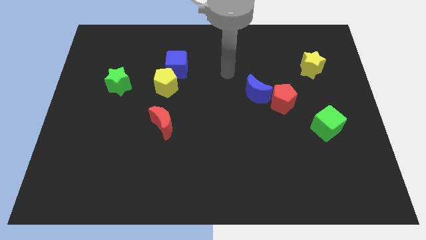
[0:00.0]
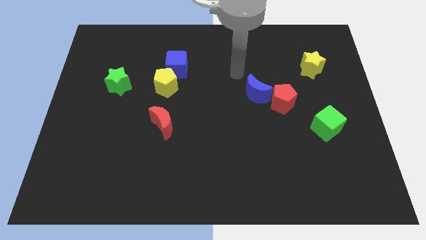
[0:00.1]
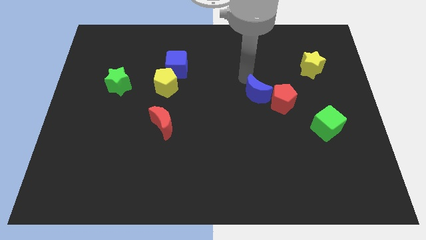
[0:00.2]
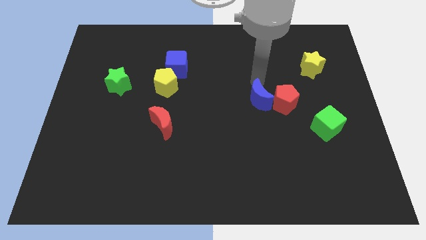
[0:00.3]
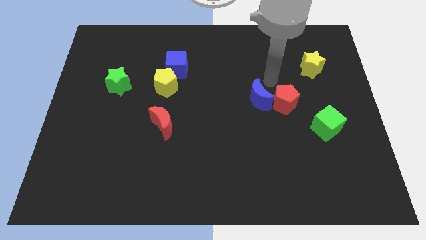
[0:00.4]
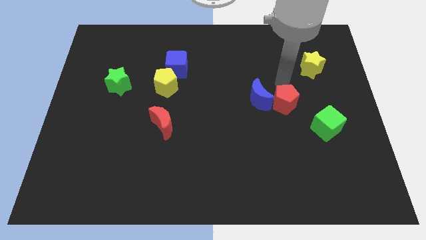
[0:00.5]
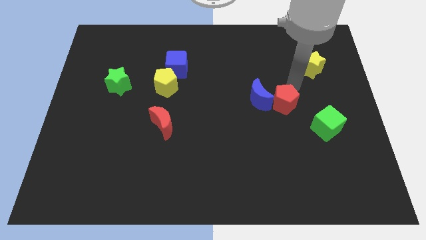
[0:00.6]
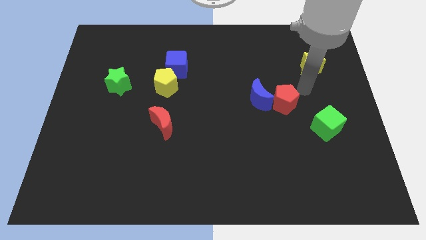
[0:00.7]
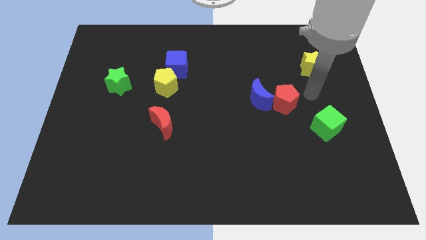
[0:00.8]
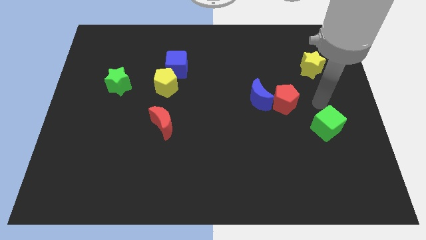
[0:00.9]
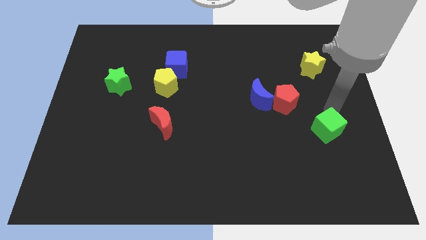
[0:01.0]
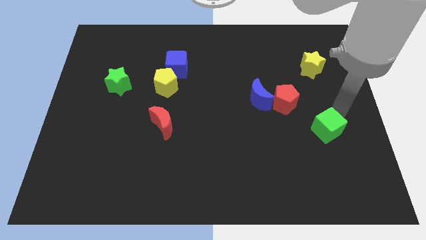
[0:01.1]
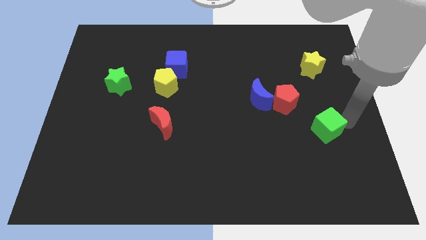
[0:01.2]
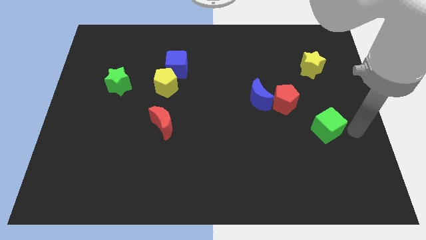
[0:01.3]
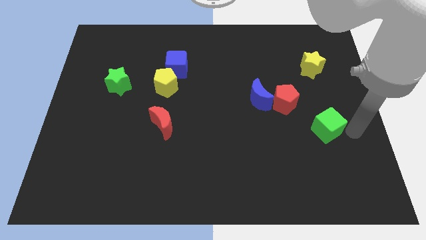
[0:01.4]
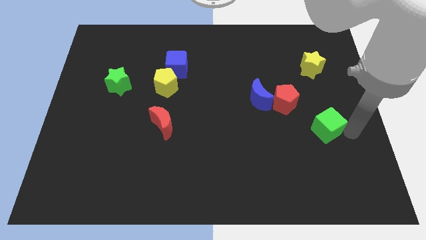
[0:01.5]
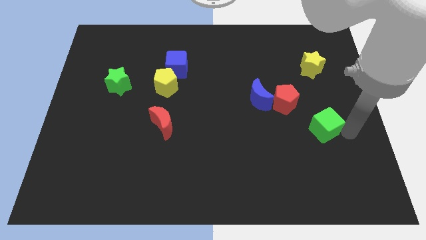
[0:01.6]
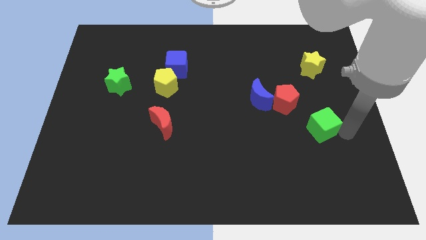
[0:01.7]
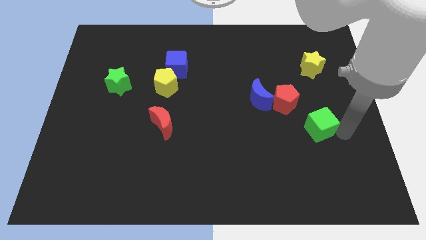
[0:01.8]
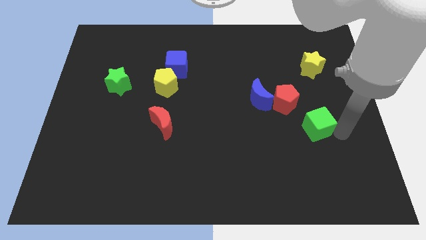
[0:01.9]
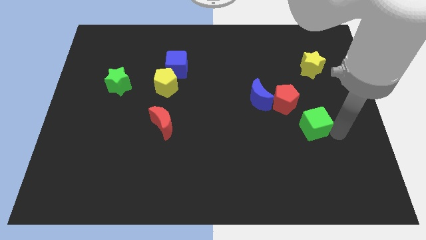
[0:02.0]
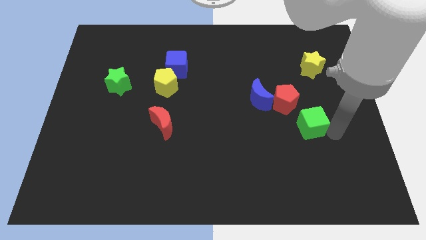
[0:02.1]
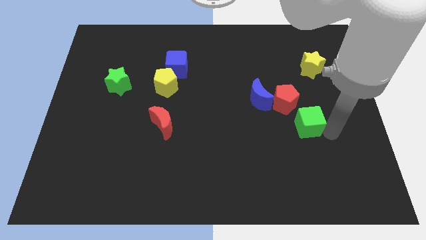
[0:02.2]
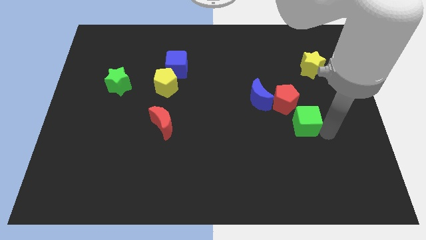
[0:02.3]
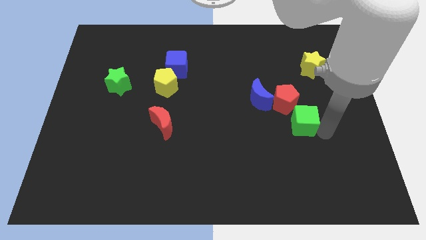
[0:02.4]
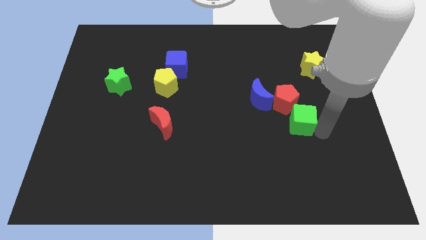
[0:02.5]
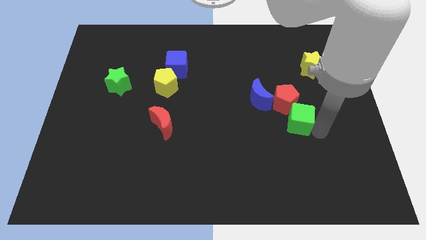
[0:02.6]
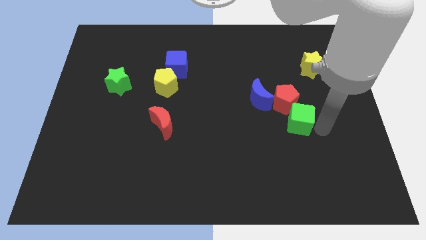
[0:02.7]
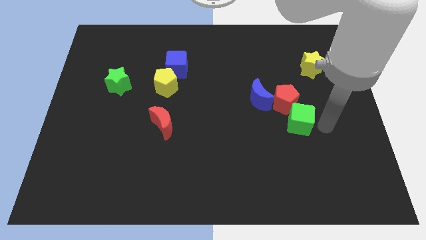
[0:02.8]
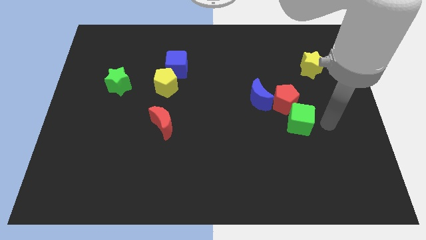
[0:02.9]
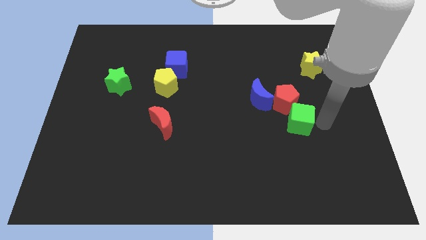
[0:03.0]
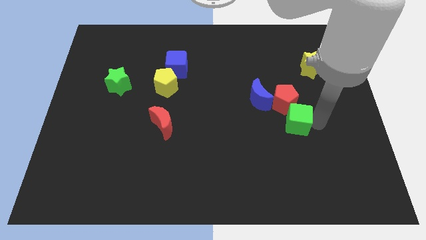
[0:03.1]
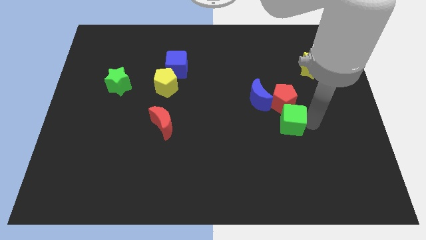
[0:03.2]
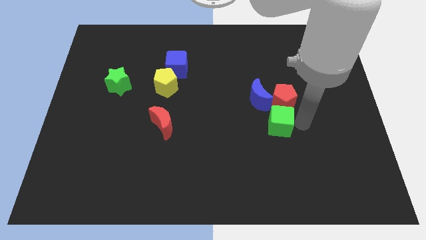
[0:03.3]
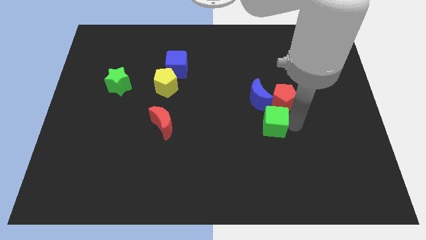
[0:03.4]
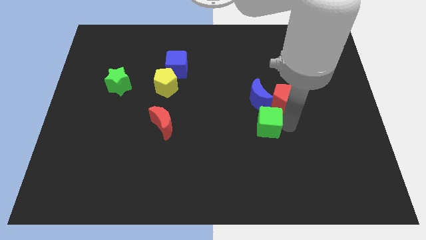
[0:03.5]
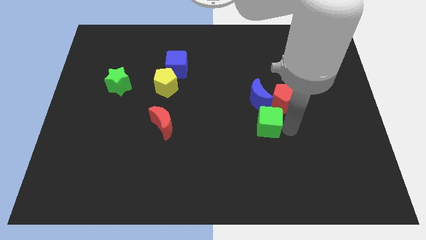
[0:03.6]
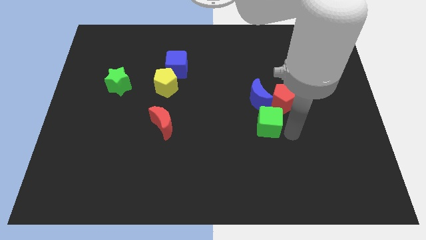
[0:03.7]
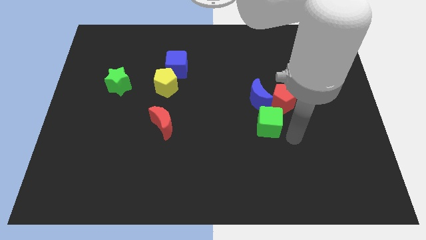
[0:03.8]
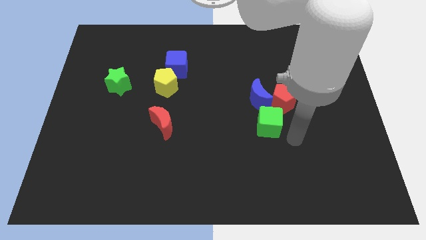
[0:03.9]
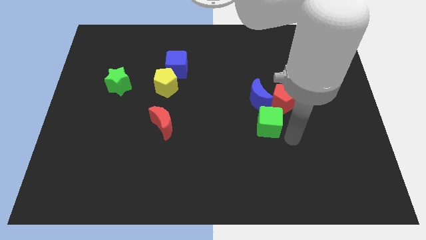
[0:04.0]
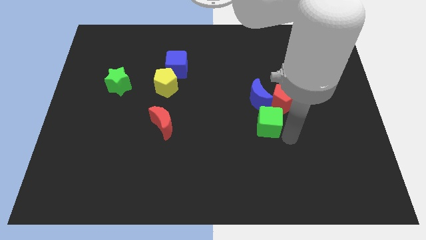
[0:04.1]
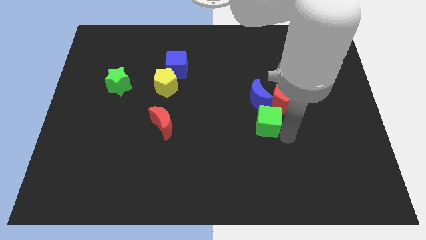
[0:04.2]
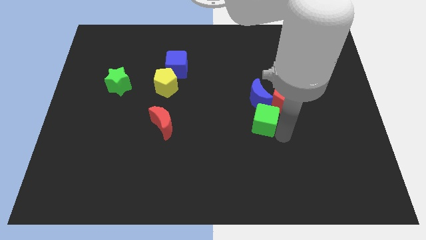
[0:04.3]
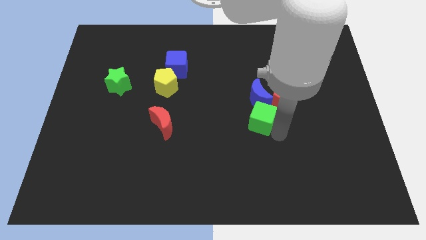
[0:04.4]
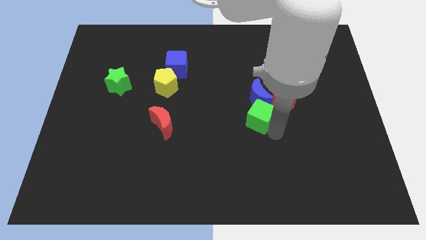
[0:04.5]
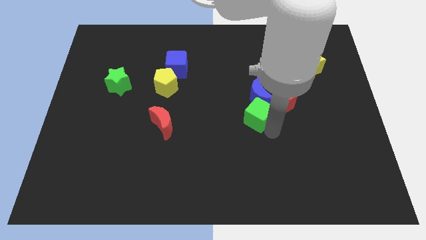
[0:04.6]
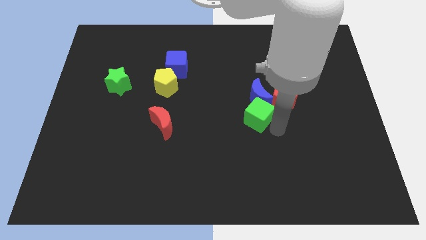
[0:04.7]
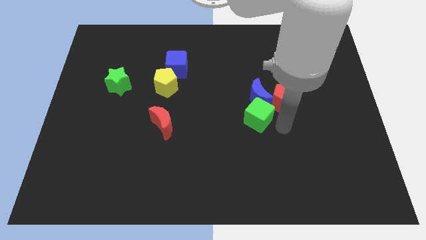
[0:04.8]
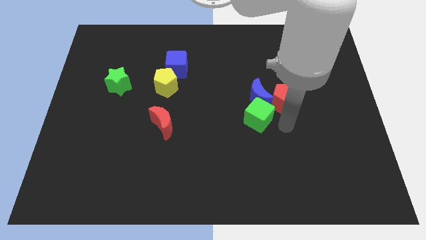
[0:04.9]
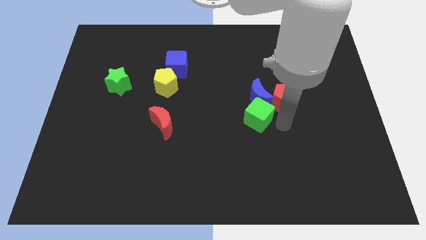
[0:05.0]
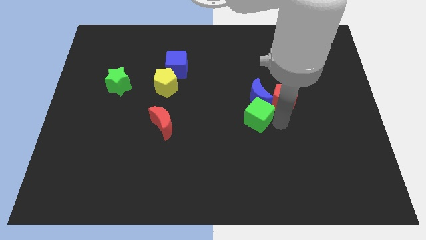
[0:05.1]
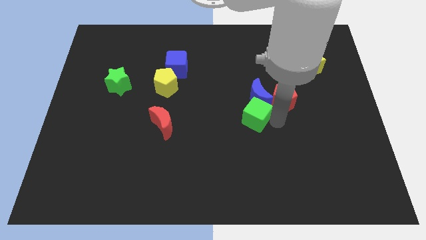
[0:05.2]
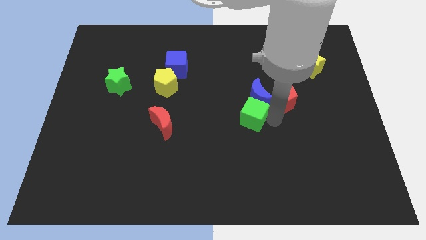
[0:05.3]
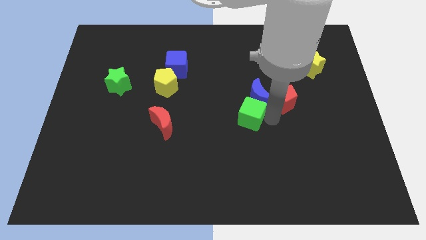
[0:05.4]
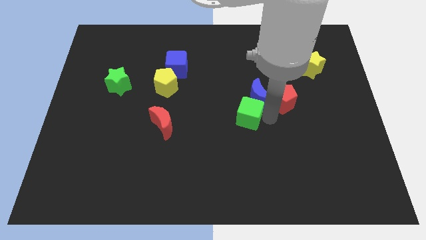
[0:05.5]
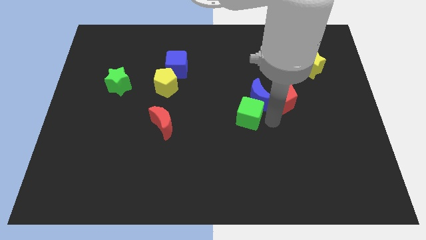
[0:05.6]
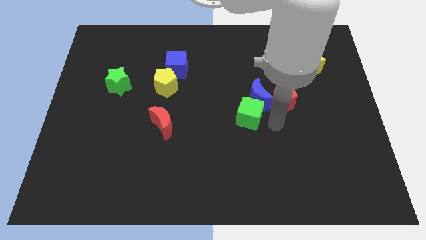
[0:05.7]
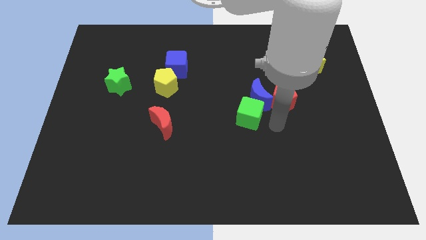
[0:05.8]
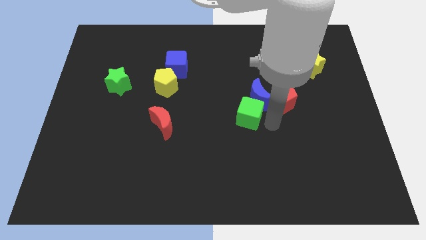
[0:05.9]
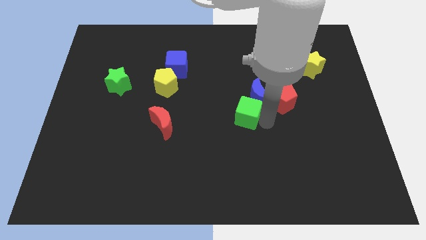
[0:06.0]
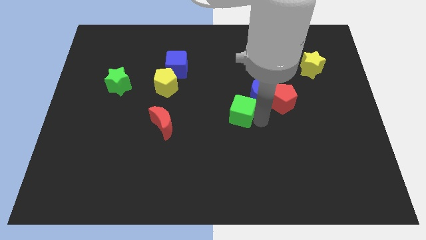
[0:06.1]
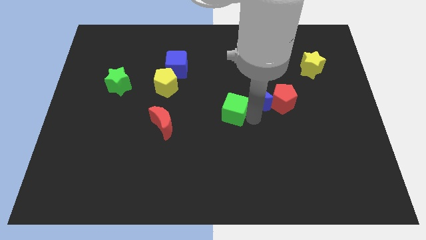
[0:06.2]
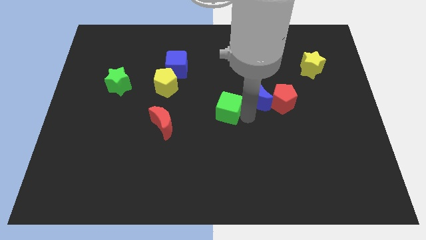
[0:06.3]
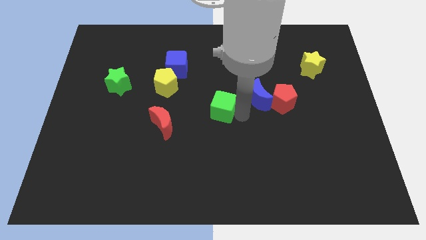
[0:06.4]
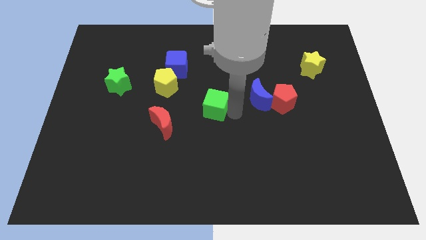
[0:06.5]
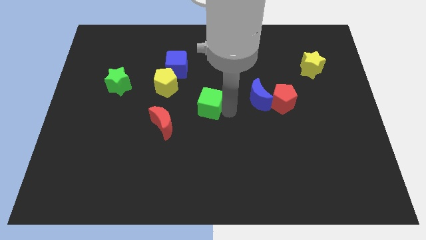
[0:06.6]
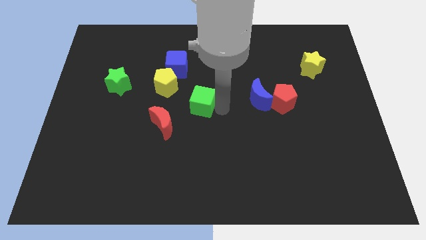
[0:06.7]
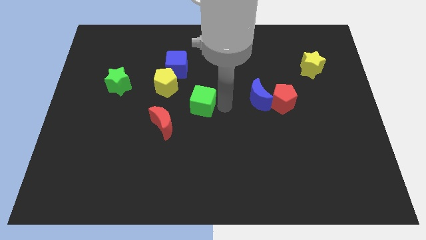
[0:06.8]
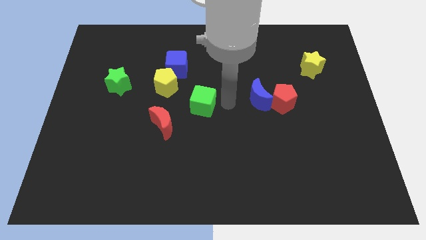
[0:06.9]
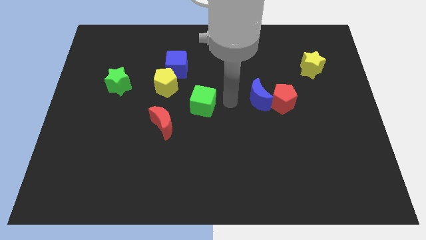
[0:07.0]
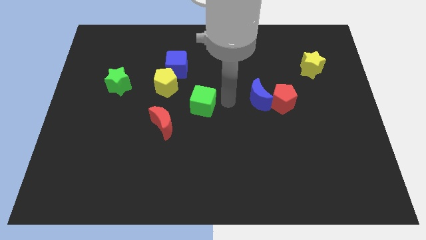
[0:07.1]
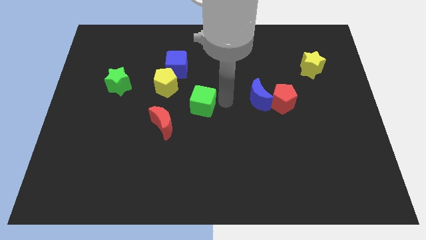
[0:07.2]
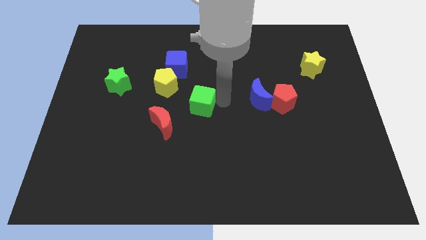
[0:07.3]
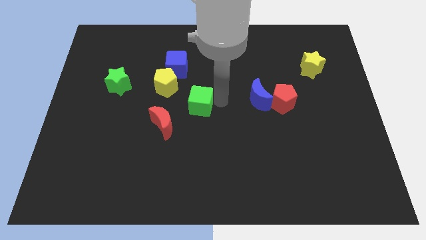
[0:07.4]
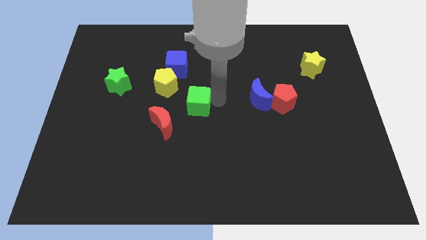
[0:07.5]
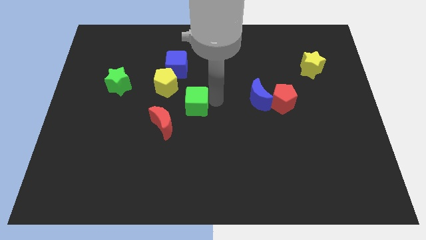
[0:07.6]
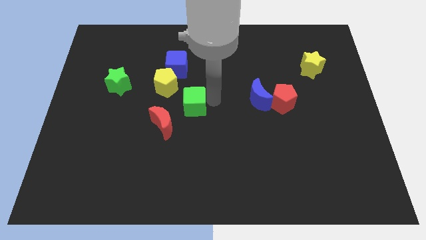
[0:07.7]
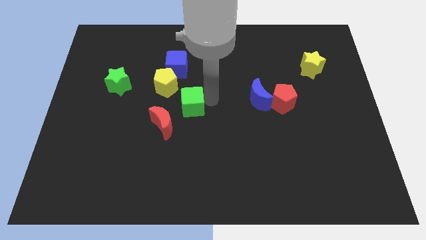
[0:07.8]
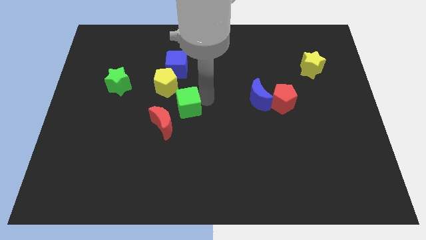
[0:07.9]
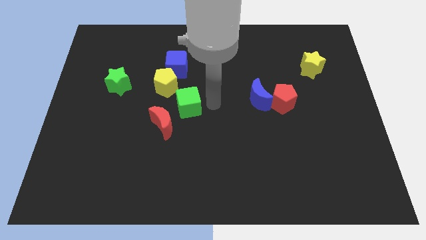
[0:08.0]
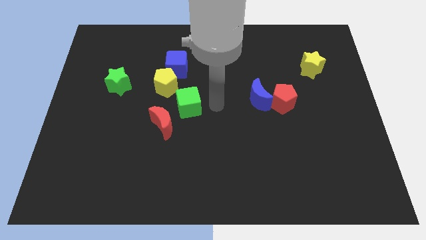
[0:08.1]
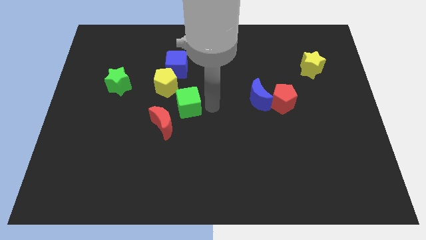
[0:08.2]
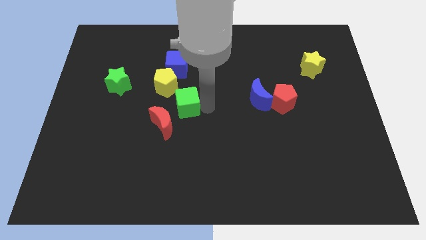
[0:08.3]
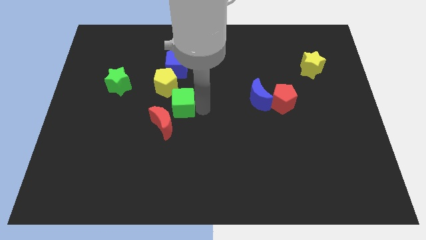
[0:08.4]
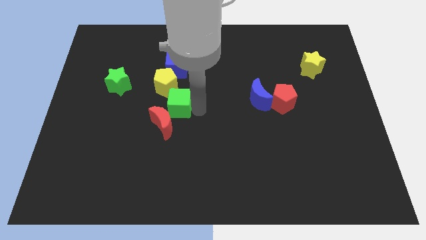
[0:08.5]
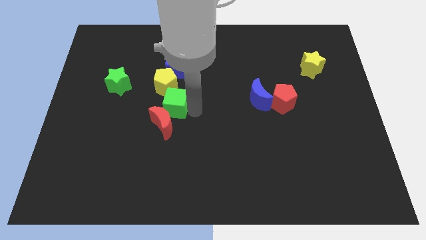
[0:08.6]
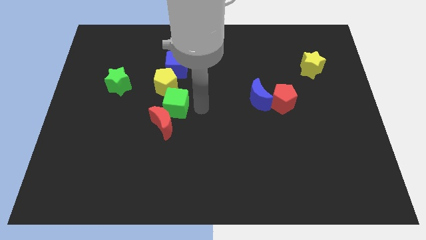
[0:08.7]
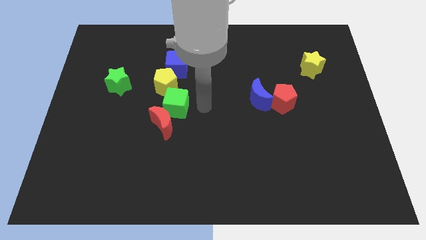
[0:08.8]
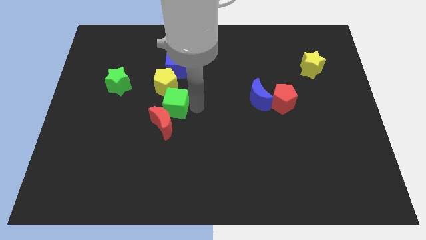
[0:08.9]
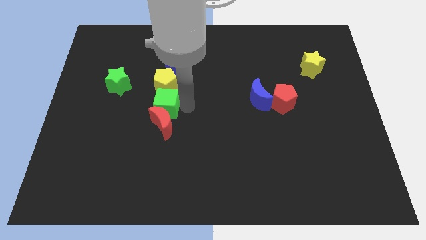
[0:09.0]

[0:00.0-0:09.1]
move the green cube diagonally up and to the left of the red moon
